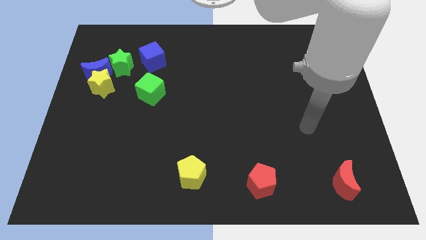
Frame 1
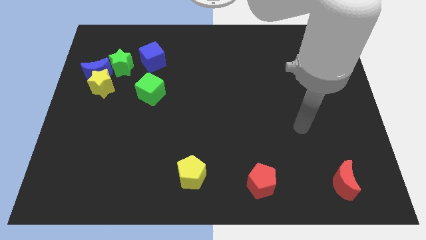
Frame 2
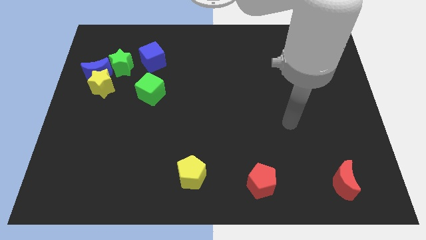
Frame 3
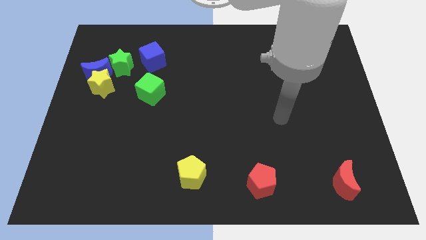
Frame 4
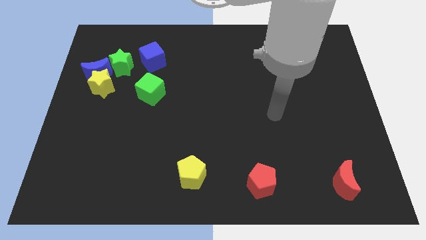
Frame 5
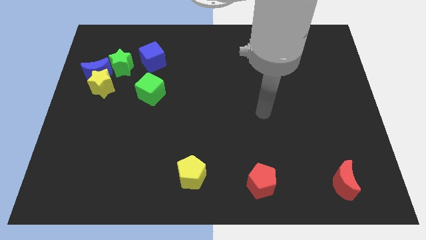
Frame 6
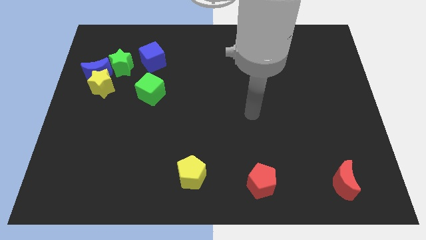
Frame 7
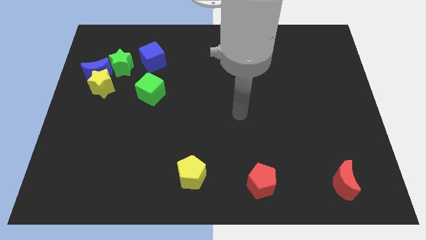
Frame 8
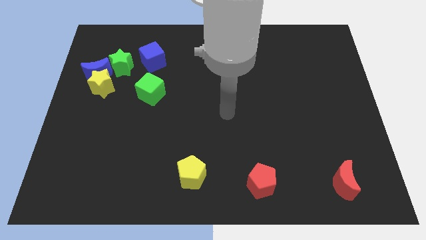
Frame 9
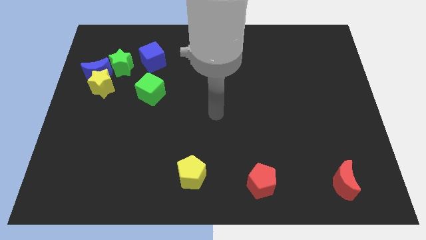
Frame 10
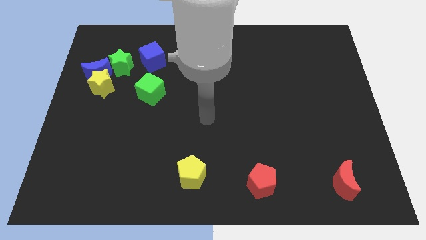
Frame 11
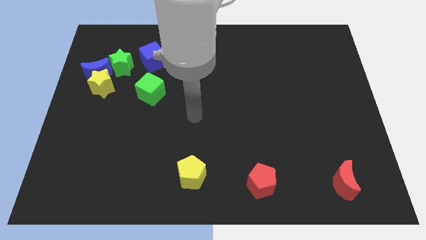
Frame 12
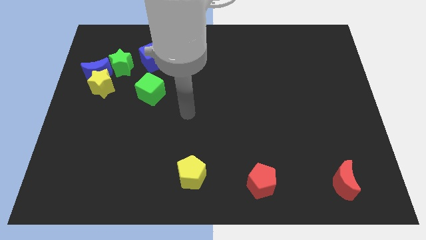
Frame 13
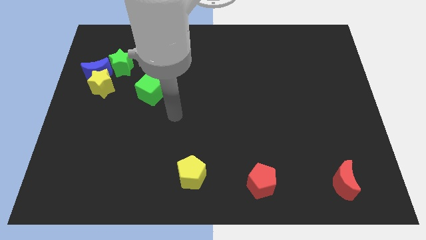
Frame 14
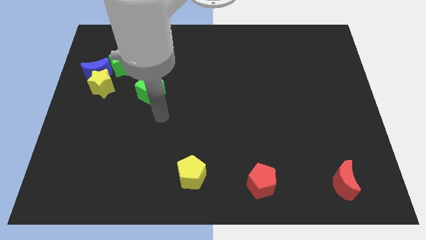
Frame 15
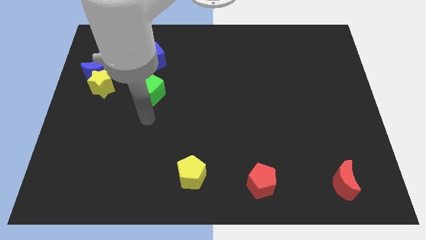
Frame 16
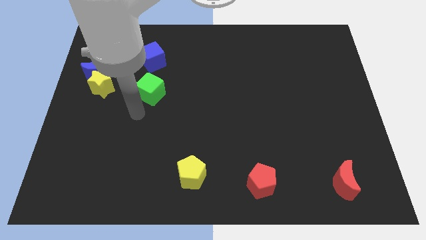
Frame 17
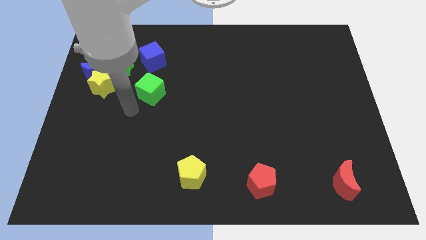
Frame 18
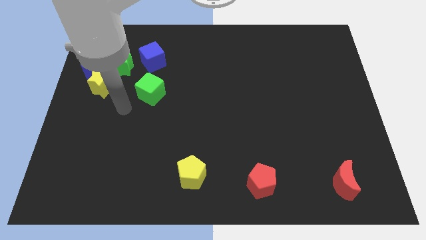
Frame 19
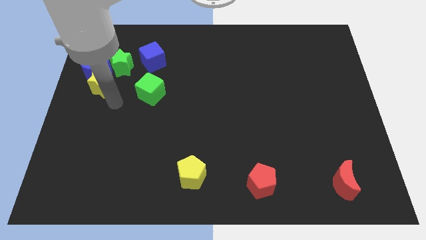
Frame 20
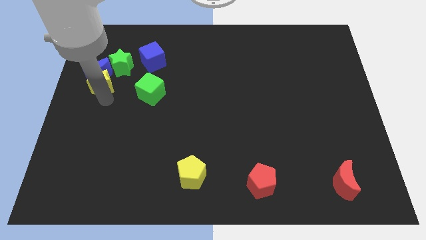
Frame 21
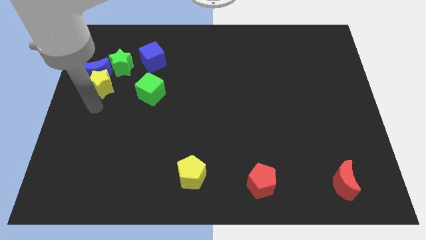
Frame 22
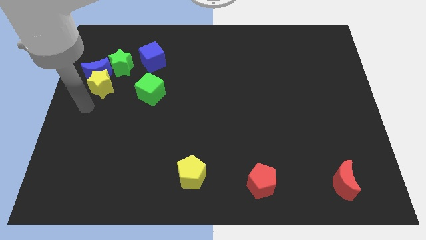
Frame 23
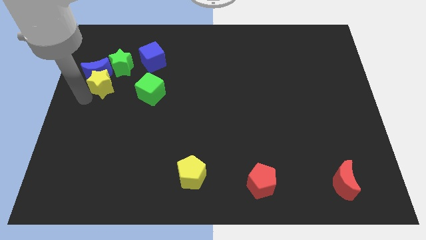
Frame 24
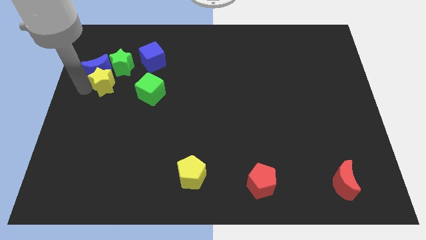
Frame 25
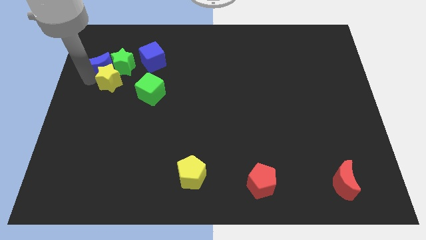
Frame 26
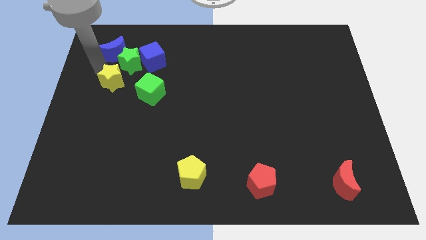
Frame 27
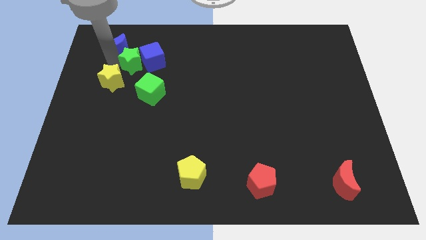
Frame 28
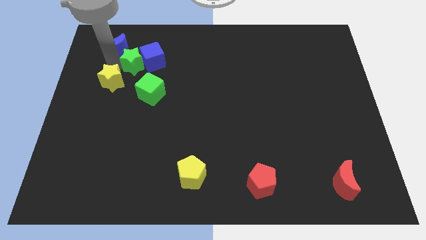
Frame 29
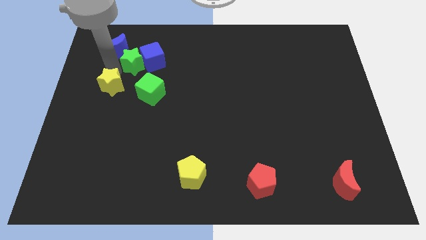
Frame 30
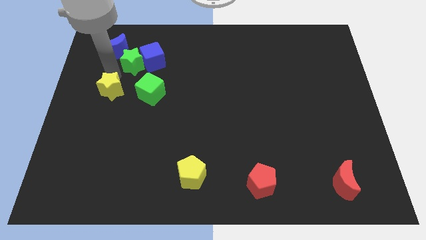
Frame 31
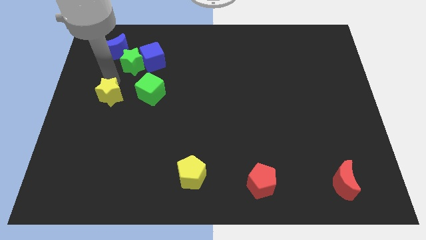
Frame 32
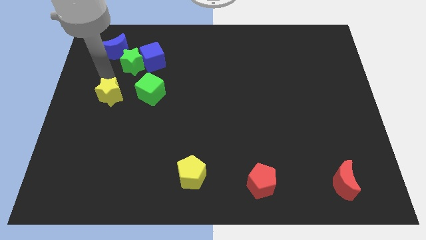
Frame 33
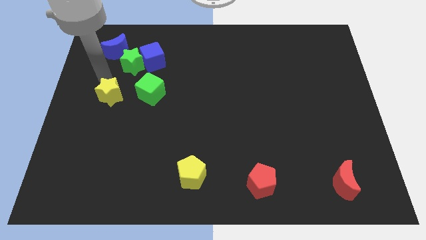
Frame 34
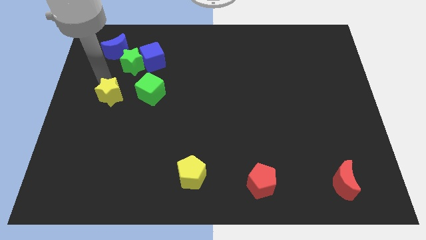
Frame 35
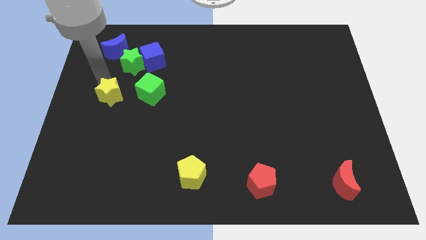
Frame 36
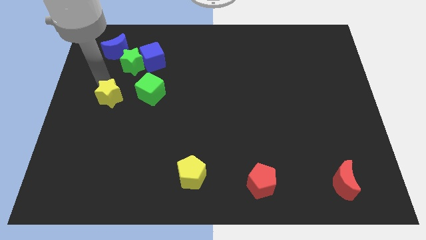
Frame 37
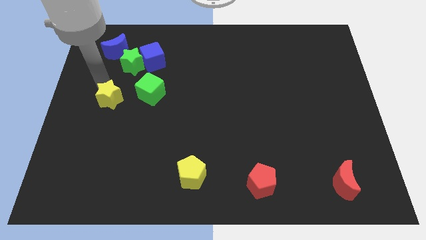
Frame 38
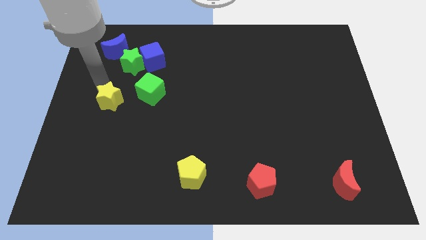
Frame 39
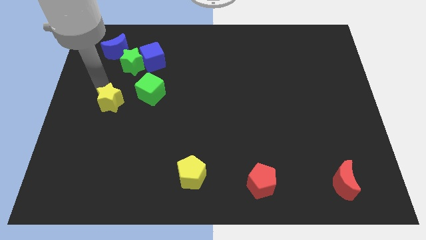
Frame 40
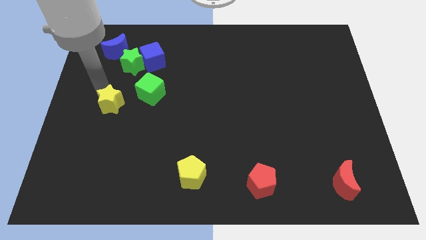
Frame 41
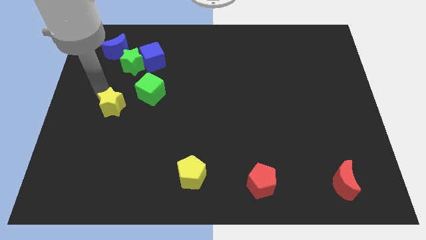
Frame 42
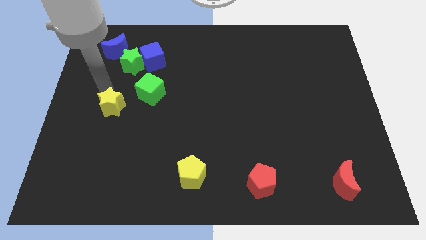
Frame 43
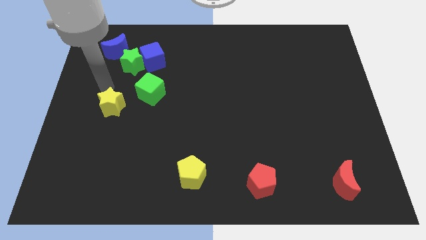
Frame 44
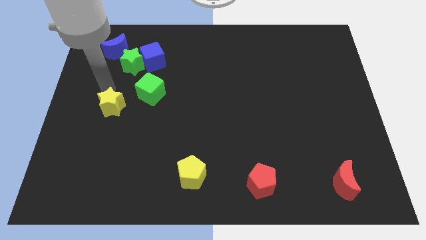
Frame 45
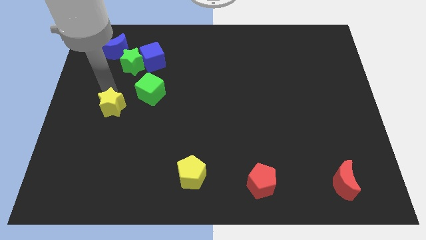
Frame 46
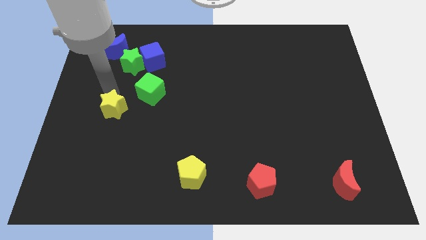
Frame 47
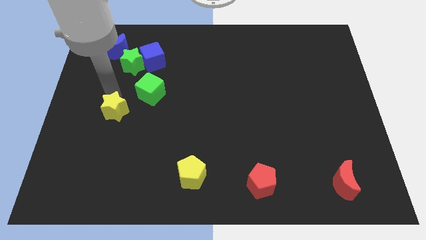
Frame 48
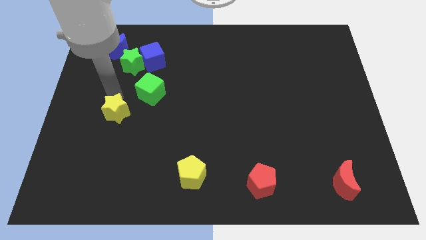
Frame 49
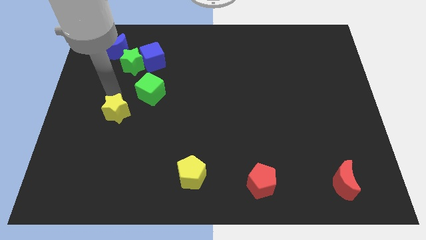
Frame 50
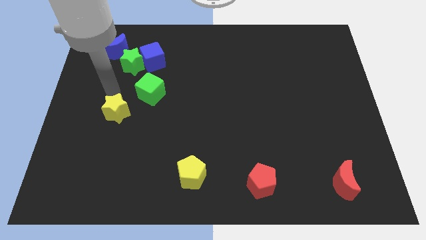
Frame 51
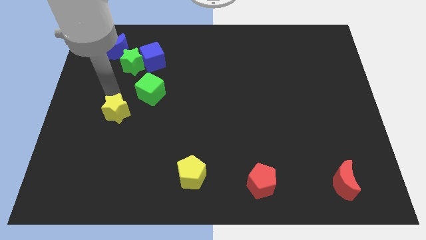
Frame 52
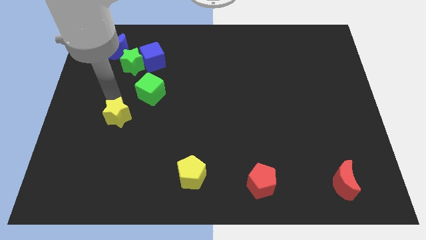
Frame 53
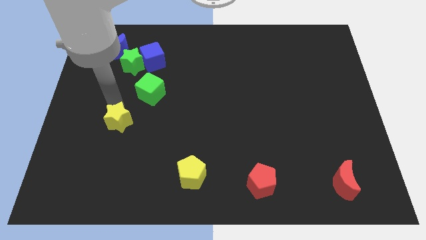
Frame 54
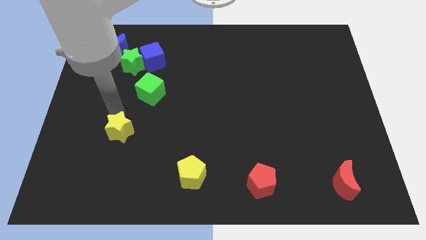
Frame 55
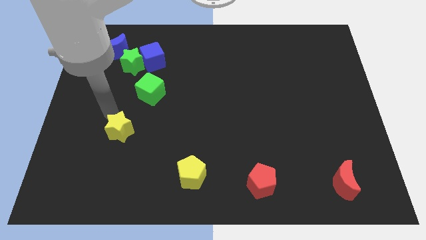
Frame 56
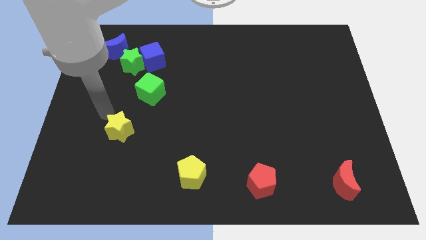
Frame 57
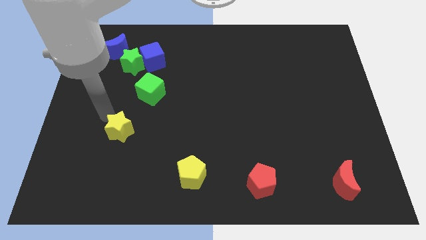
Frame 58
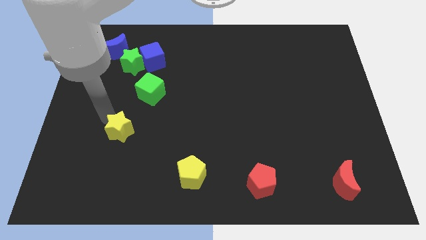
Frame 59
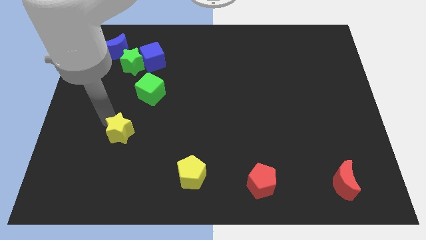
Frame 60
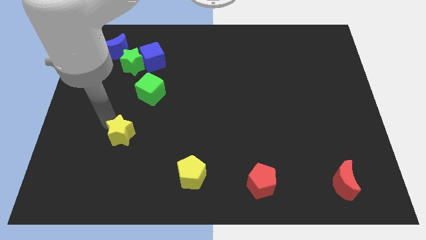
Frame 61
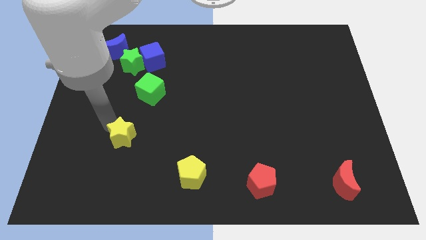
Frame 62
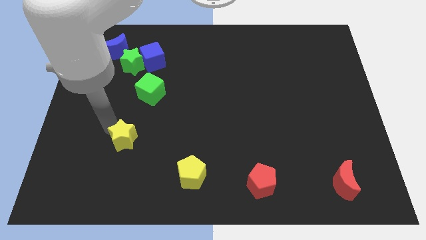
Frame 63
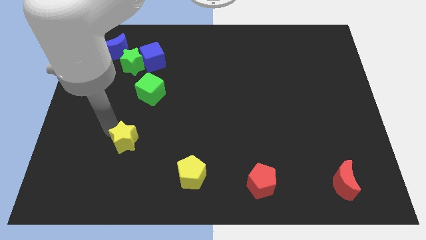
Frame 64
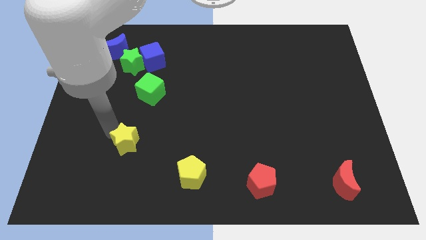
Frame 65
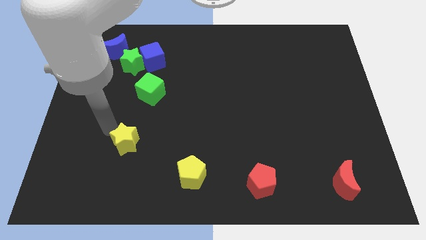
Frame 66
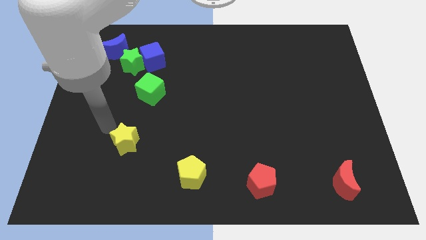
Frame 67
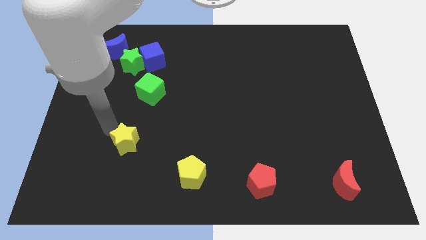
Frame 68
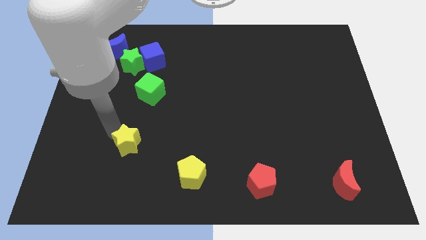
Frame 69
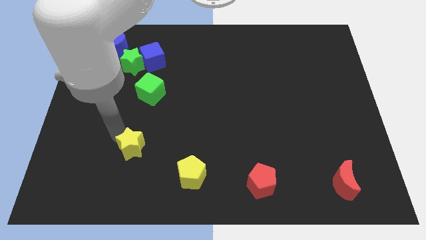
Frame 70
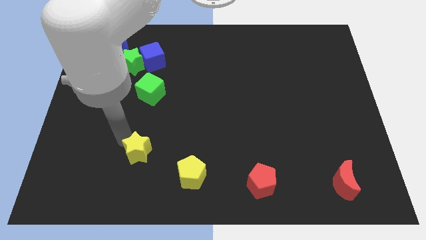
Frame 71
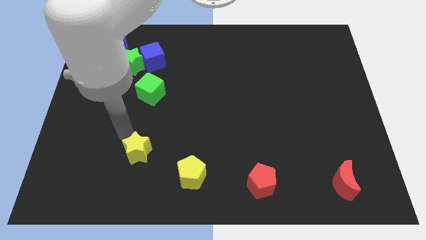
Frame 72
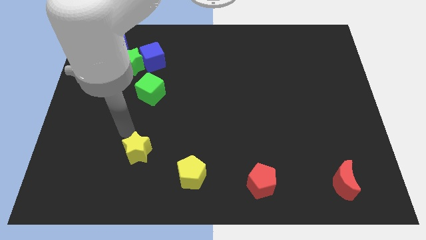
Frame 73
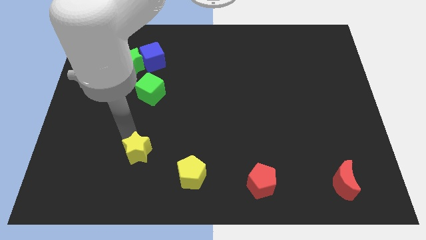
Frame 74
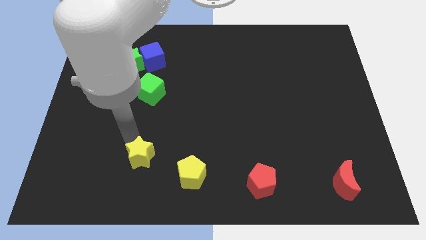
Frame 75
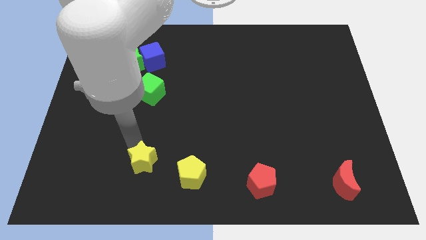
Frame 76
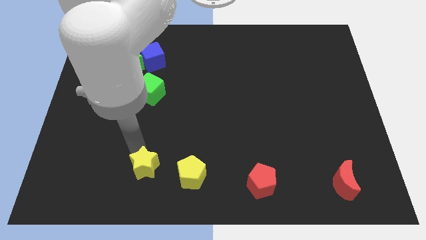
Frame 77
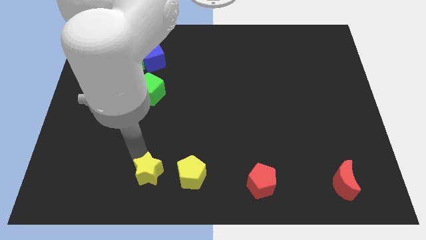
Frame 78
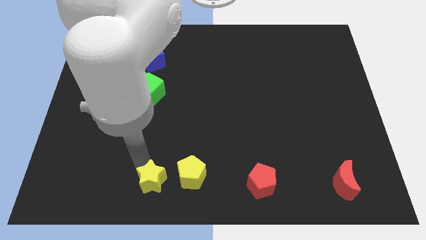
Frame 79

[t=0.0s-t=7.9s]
slide the yellow star to the bottom side
